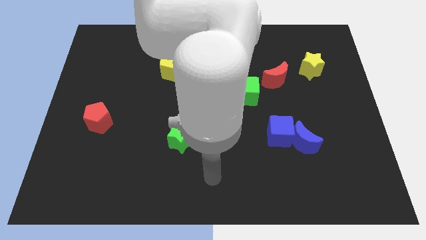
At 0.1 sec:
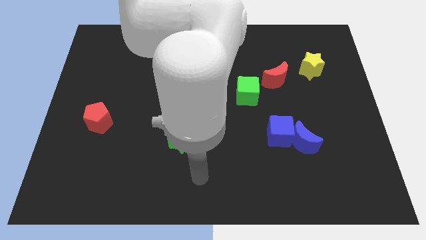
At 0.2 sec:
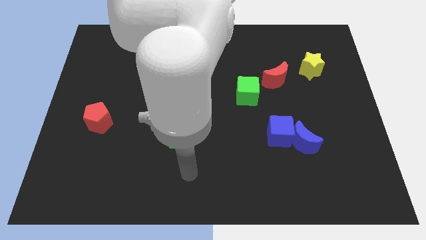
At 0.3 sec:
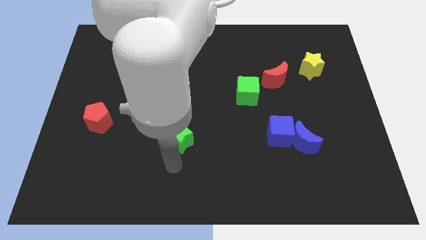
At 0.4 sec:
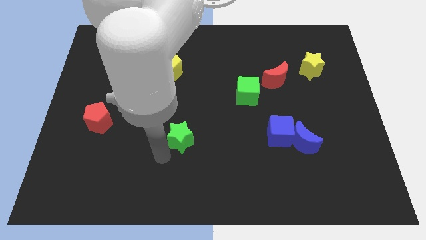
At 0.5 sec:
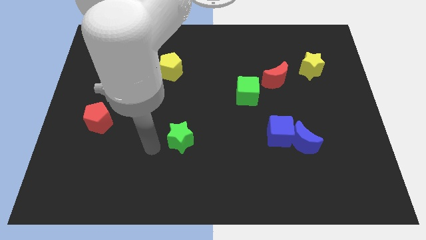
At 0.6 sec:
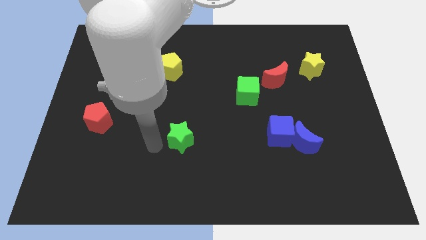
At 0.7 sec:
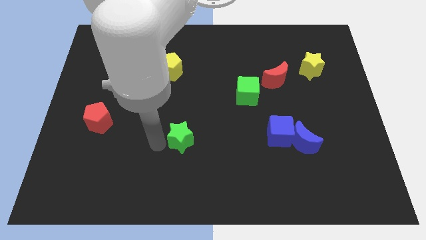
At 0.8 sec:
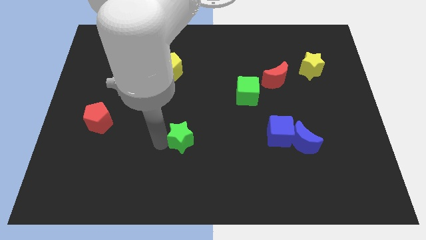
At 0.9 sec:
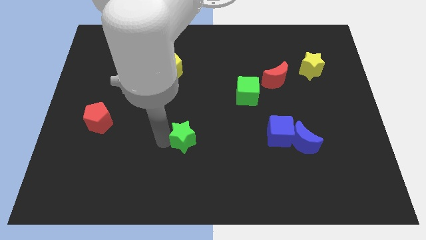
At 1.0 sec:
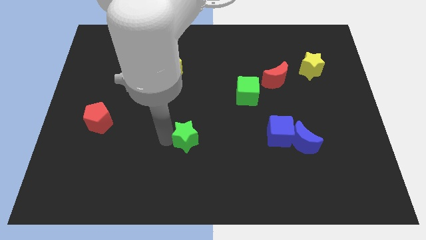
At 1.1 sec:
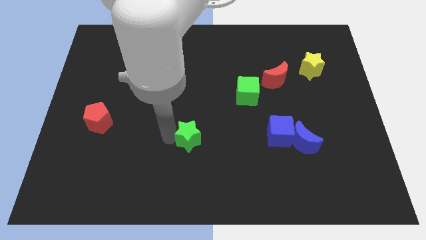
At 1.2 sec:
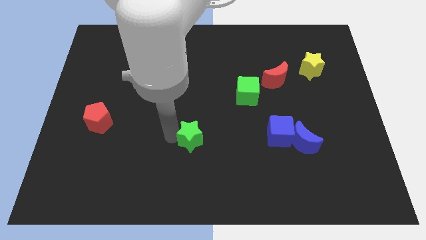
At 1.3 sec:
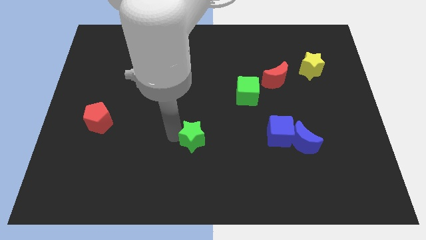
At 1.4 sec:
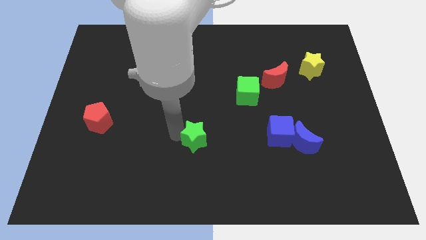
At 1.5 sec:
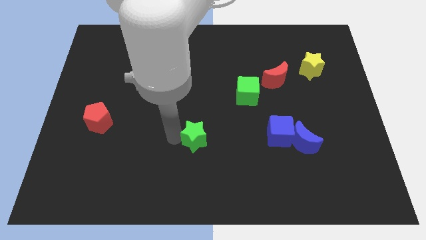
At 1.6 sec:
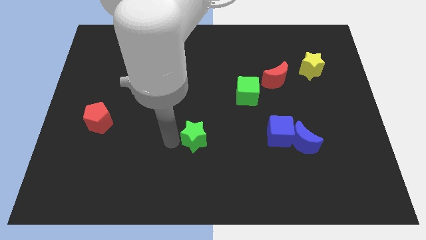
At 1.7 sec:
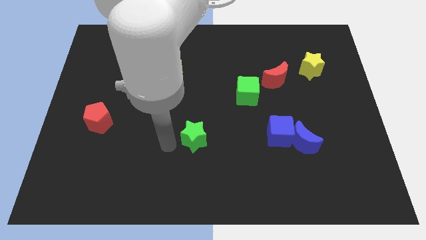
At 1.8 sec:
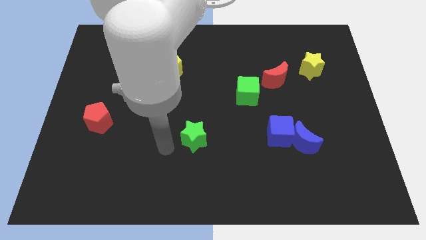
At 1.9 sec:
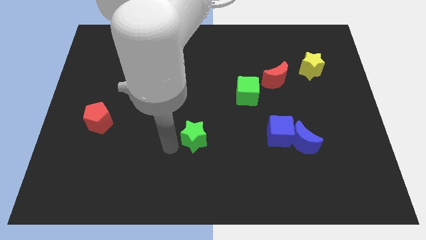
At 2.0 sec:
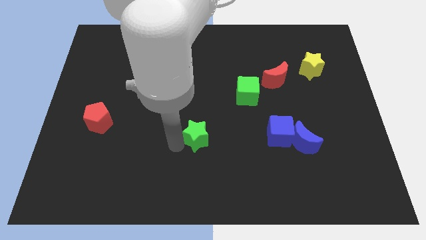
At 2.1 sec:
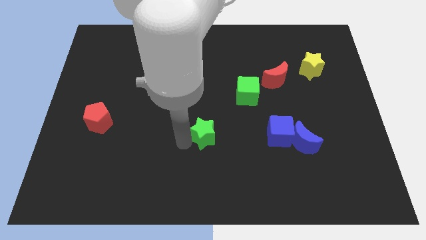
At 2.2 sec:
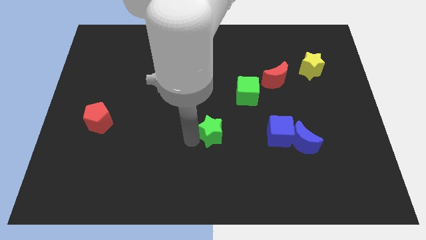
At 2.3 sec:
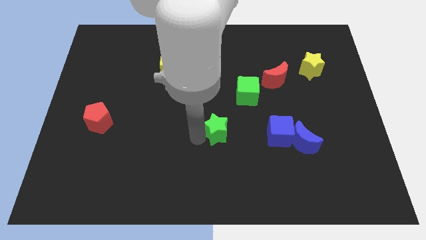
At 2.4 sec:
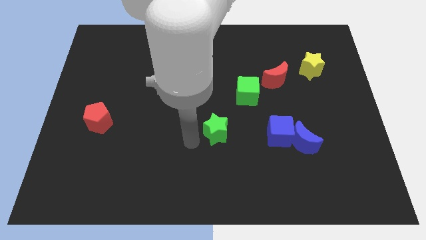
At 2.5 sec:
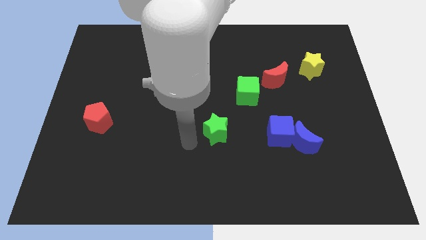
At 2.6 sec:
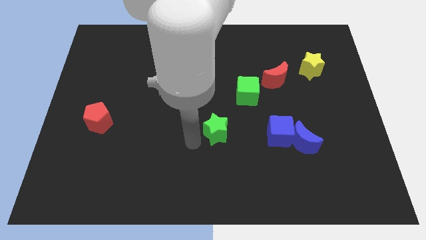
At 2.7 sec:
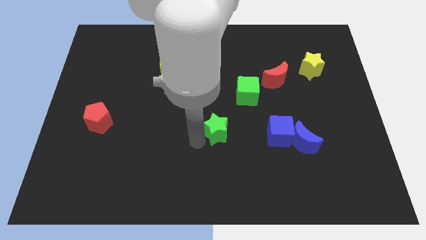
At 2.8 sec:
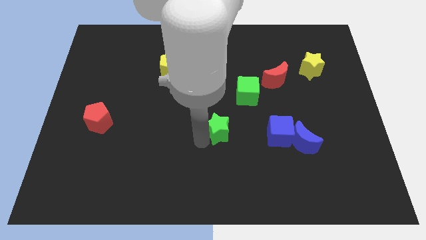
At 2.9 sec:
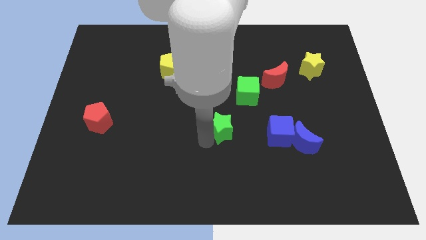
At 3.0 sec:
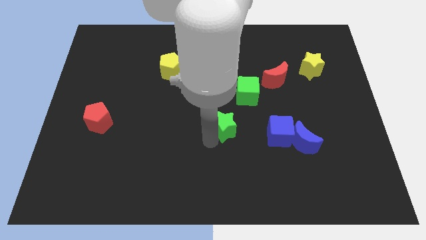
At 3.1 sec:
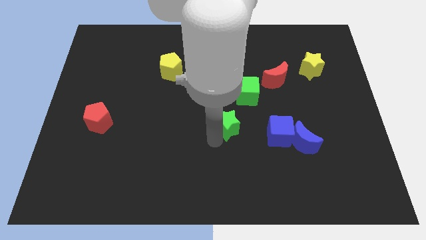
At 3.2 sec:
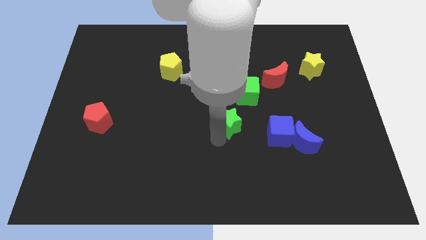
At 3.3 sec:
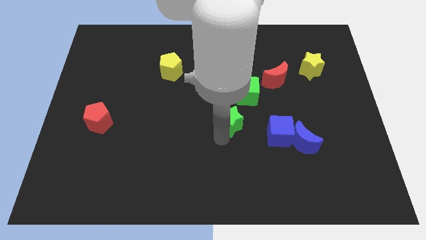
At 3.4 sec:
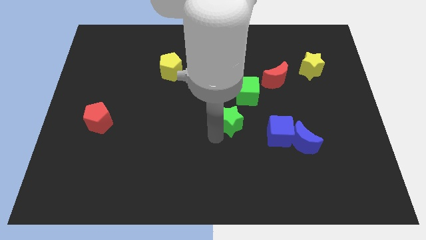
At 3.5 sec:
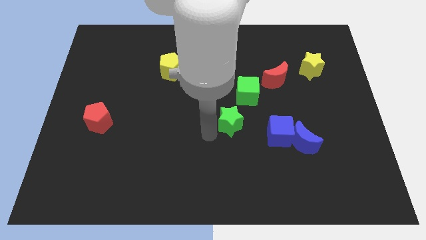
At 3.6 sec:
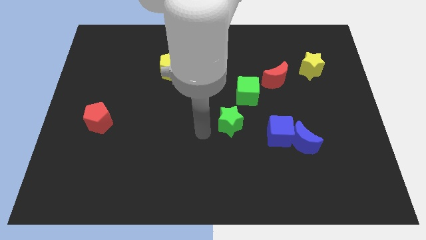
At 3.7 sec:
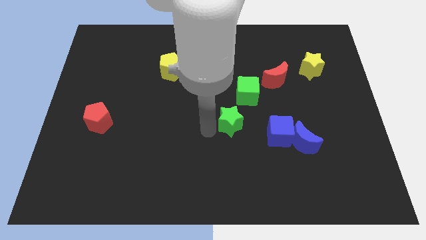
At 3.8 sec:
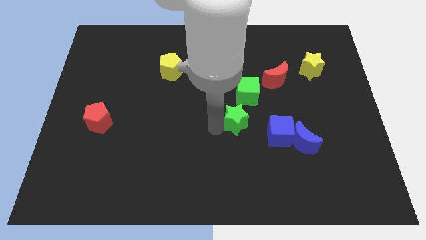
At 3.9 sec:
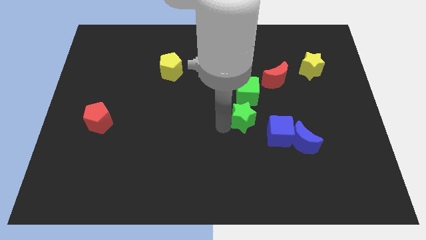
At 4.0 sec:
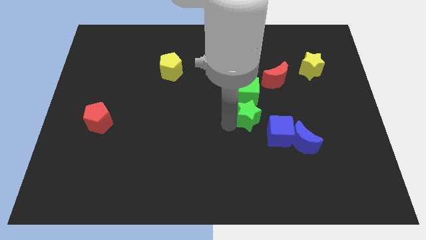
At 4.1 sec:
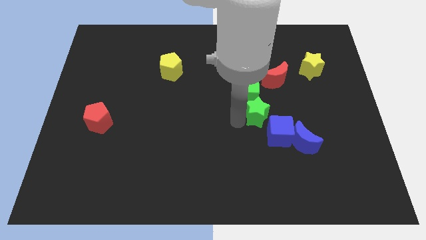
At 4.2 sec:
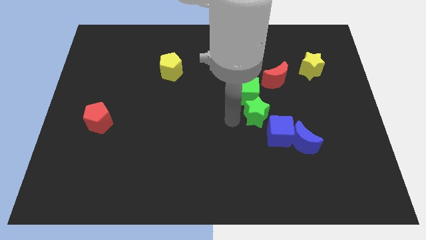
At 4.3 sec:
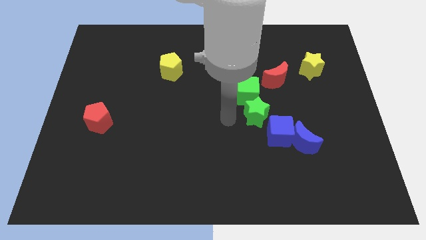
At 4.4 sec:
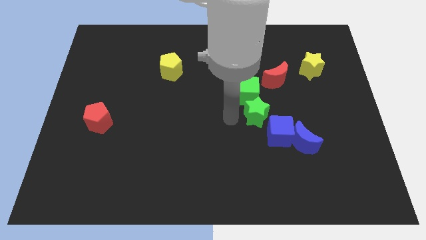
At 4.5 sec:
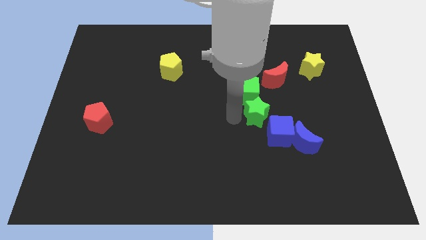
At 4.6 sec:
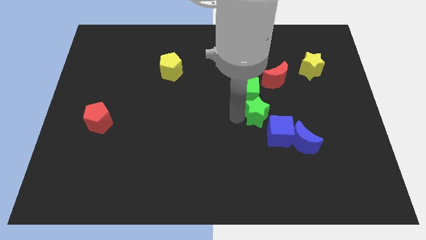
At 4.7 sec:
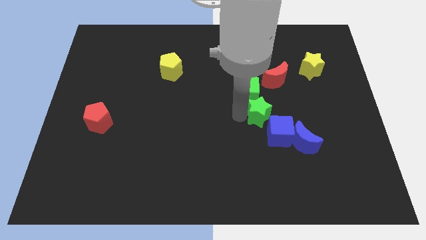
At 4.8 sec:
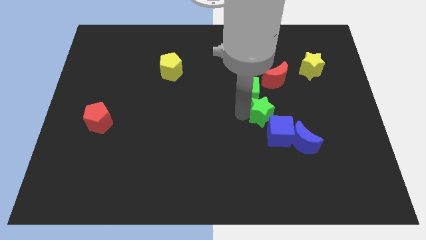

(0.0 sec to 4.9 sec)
slide the green star to the bottom side of the red moon
